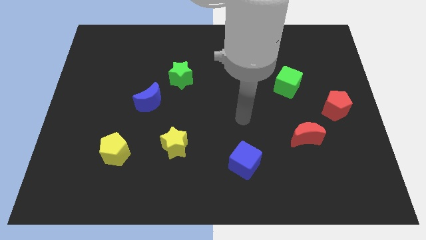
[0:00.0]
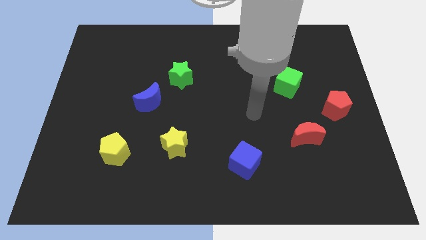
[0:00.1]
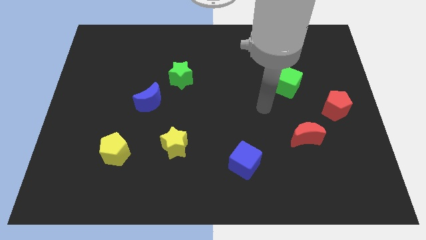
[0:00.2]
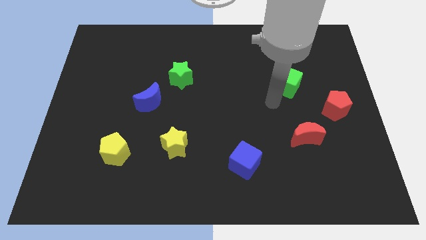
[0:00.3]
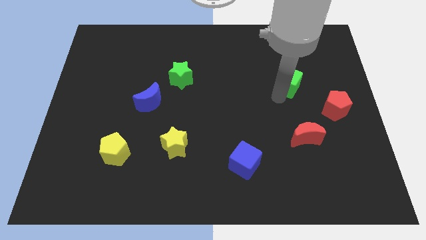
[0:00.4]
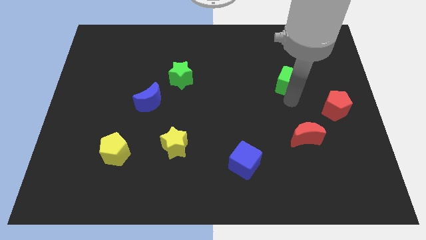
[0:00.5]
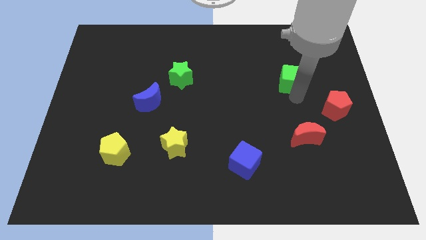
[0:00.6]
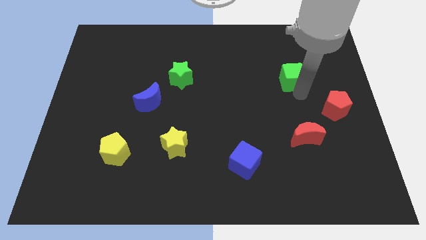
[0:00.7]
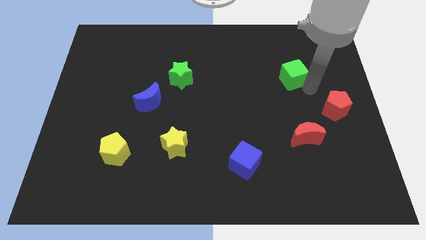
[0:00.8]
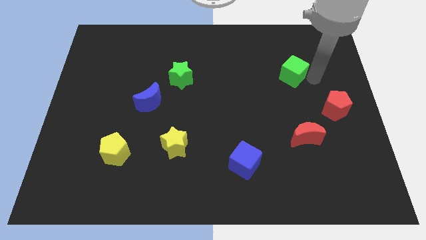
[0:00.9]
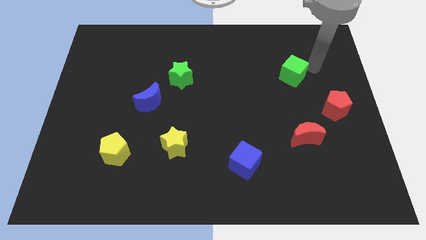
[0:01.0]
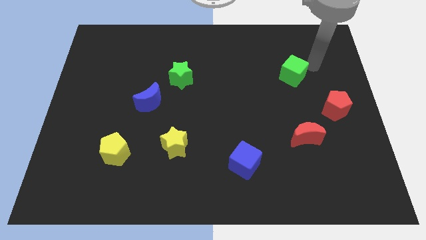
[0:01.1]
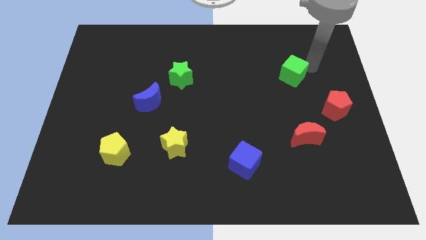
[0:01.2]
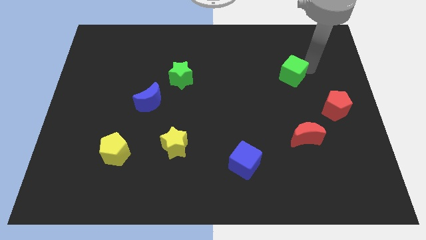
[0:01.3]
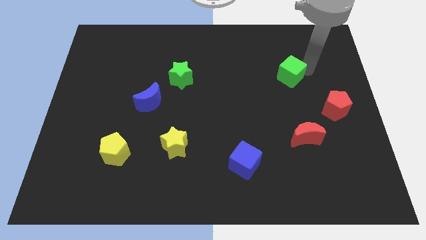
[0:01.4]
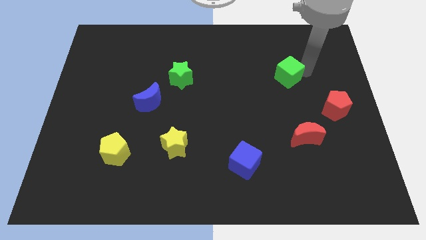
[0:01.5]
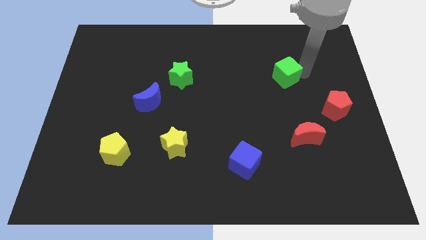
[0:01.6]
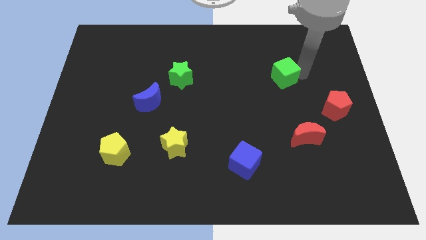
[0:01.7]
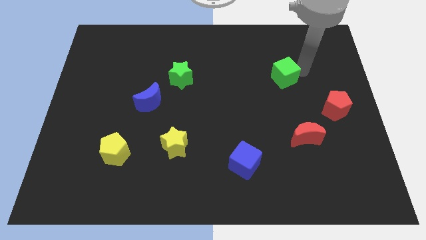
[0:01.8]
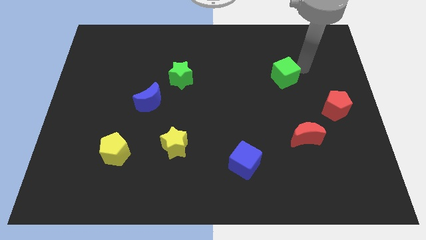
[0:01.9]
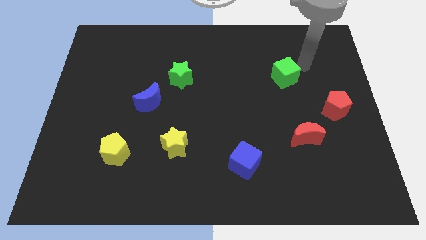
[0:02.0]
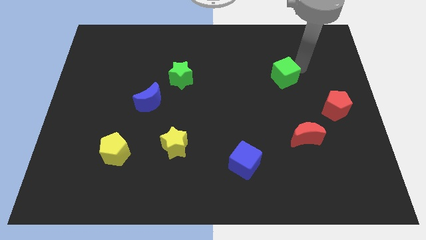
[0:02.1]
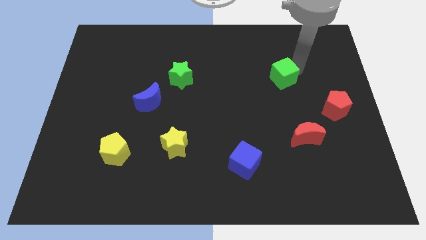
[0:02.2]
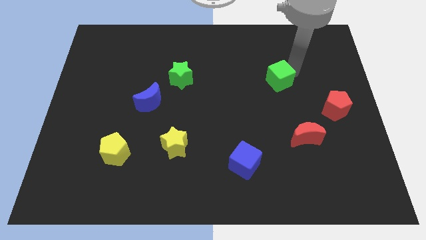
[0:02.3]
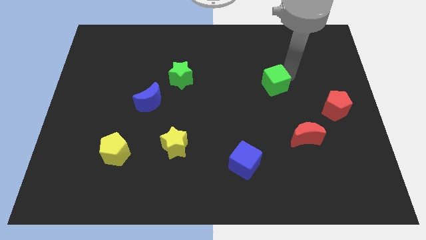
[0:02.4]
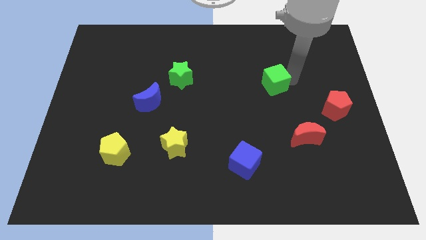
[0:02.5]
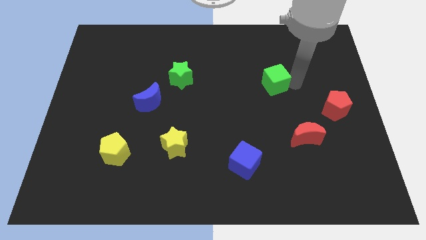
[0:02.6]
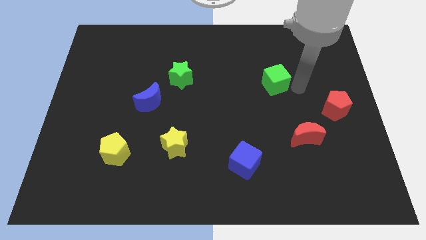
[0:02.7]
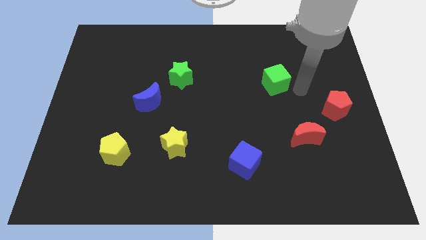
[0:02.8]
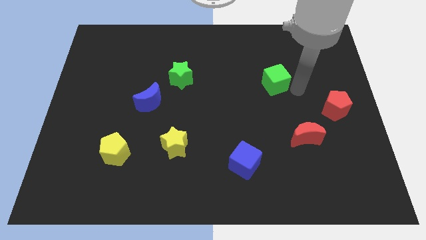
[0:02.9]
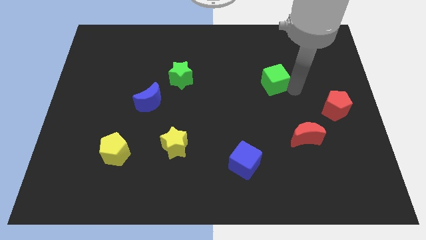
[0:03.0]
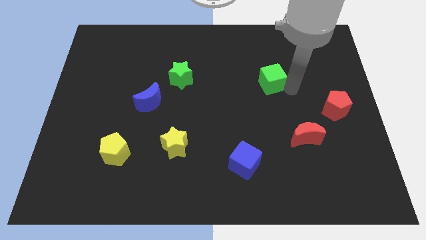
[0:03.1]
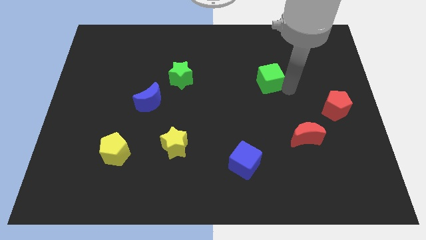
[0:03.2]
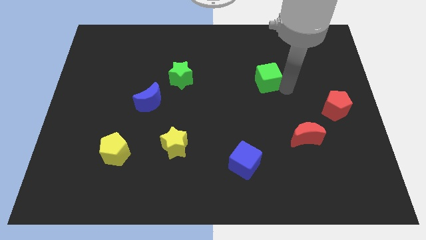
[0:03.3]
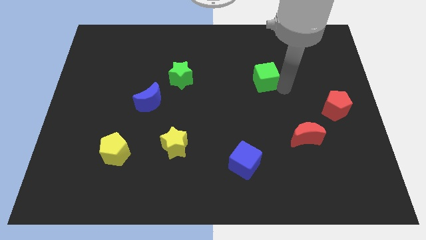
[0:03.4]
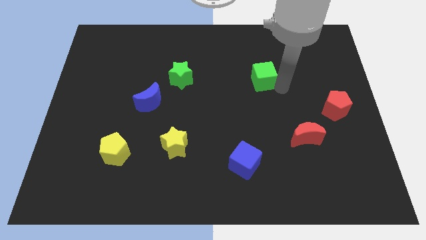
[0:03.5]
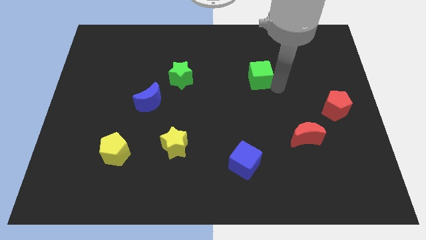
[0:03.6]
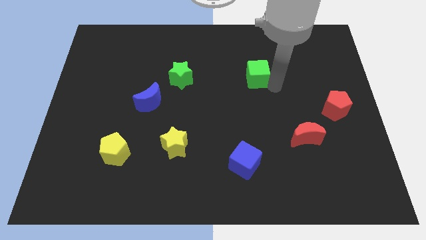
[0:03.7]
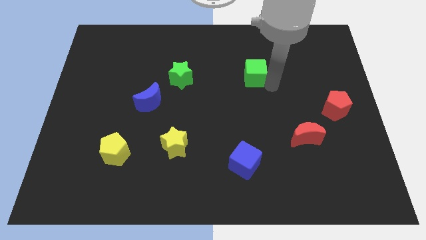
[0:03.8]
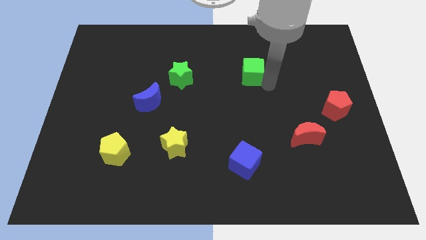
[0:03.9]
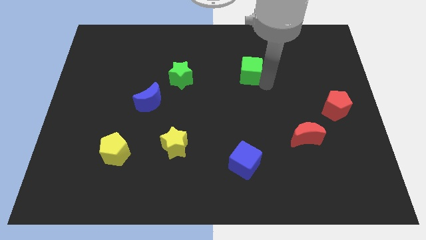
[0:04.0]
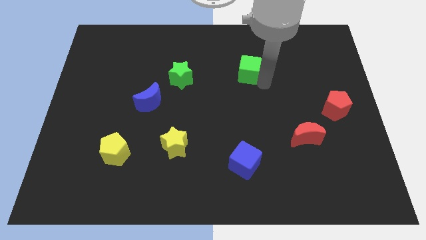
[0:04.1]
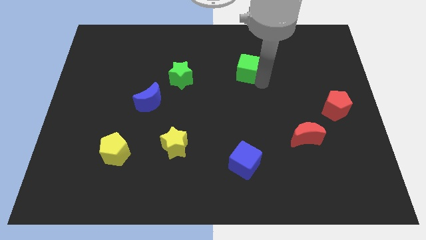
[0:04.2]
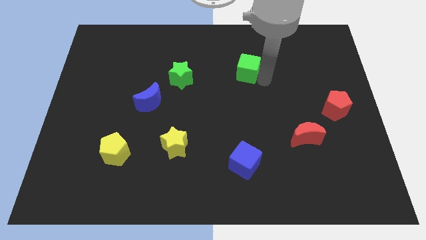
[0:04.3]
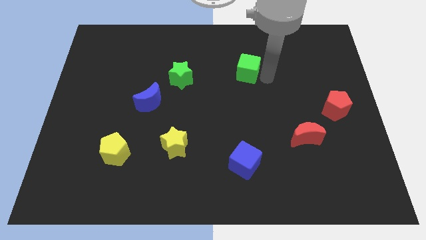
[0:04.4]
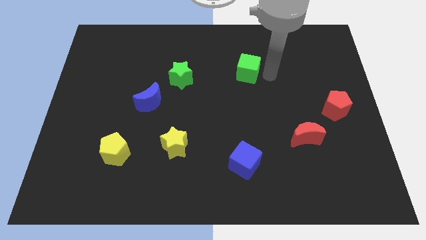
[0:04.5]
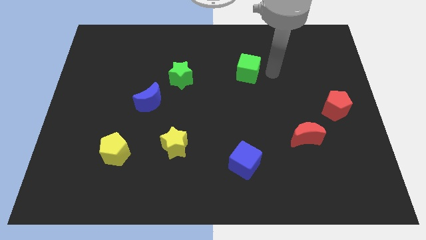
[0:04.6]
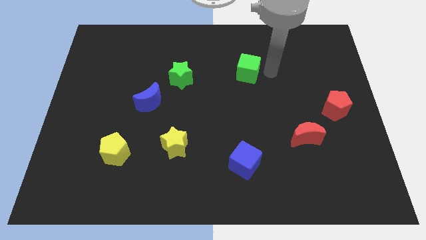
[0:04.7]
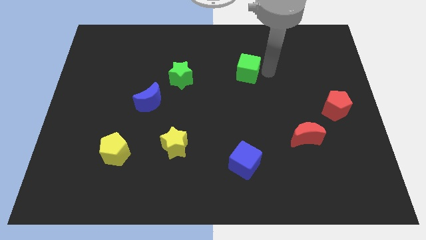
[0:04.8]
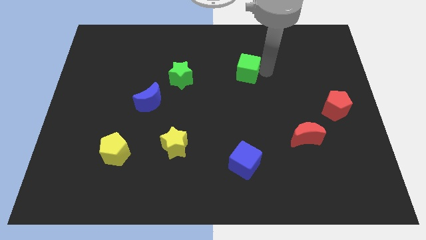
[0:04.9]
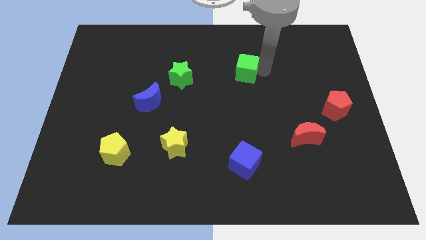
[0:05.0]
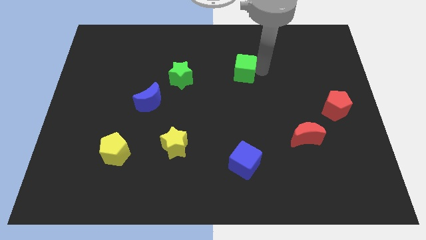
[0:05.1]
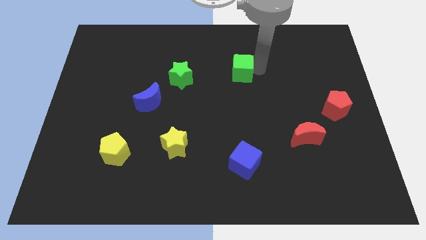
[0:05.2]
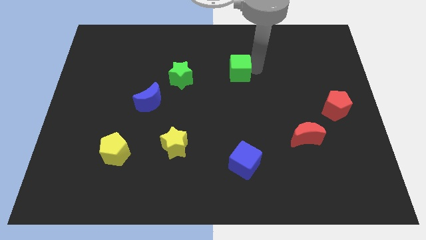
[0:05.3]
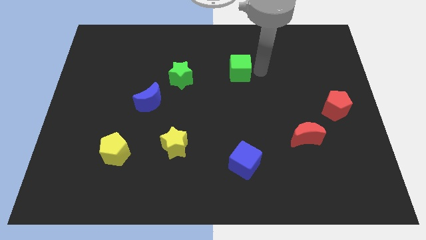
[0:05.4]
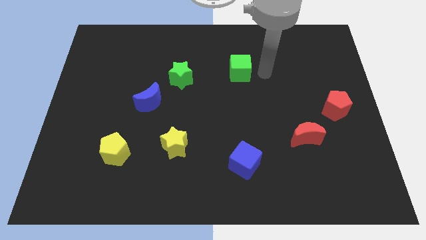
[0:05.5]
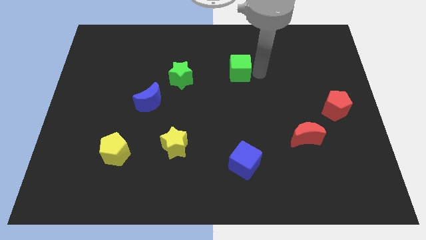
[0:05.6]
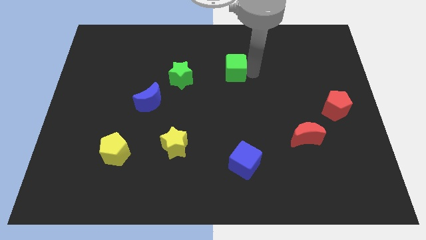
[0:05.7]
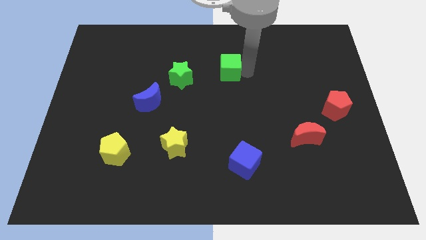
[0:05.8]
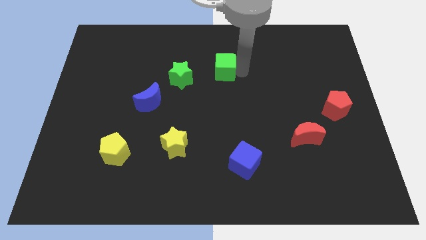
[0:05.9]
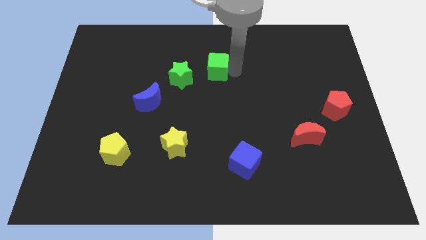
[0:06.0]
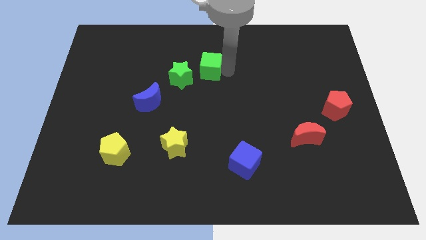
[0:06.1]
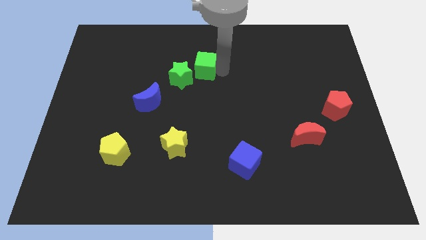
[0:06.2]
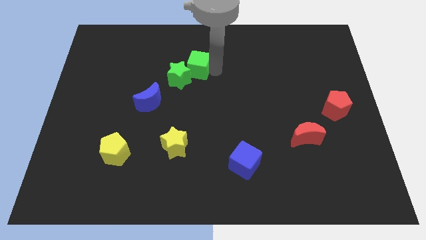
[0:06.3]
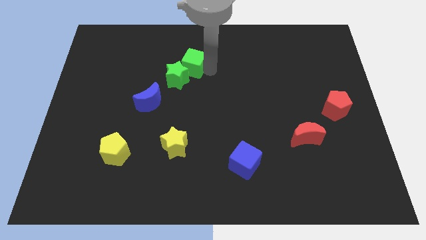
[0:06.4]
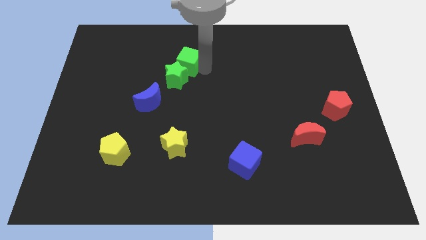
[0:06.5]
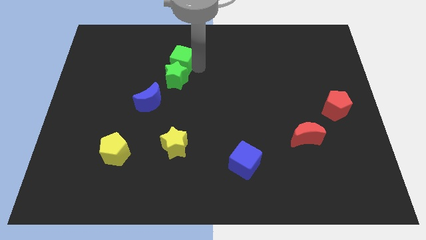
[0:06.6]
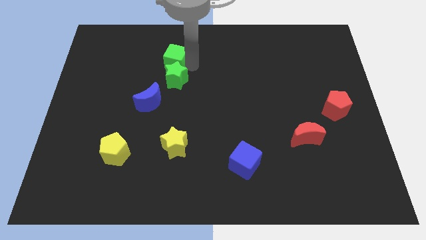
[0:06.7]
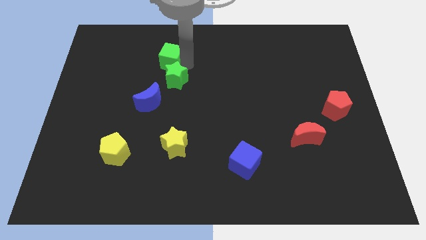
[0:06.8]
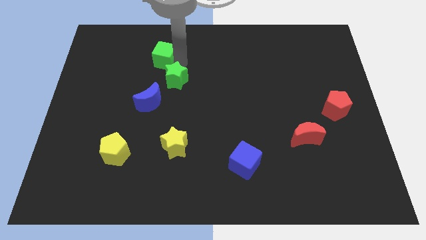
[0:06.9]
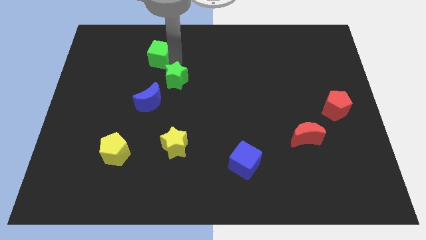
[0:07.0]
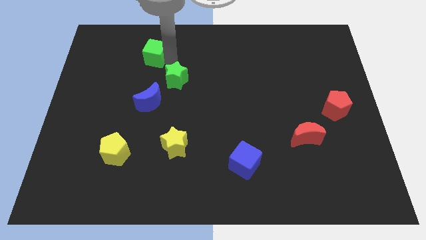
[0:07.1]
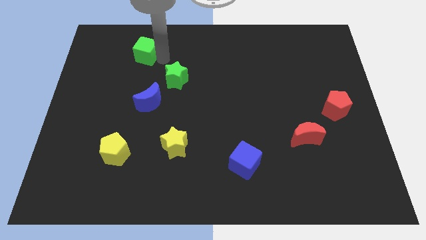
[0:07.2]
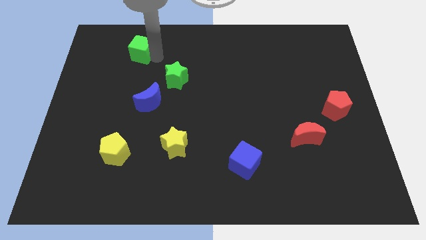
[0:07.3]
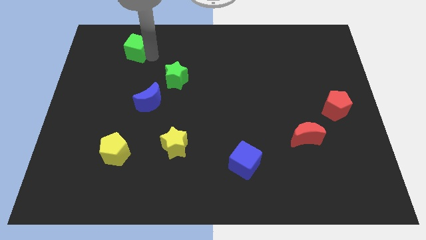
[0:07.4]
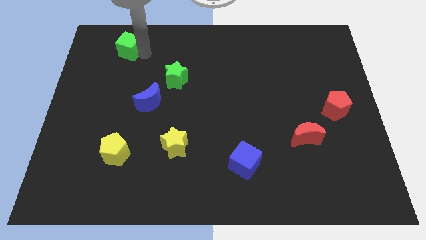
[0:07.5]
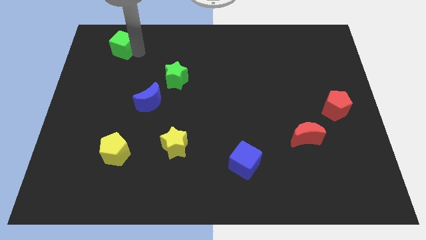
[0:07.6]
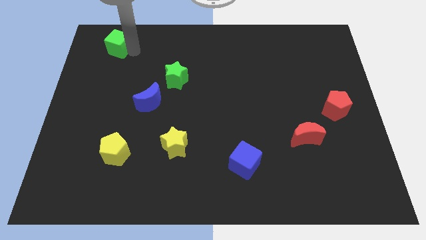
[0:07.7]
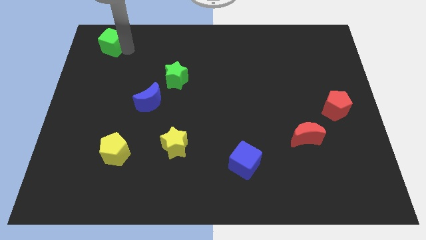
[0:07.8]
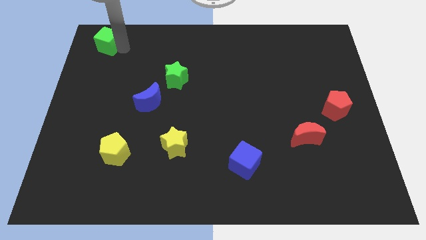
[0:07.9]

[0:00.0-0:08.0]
move the green cube to the top left corner
